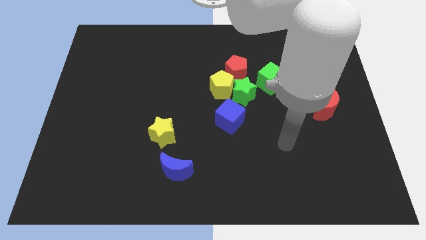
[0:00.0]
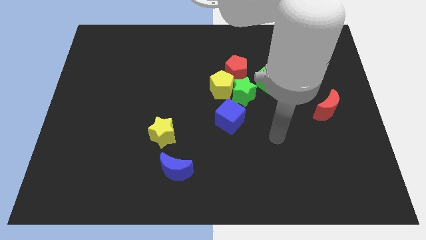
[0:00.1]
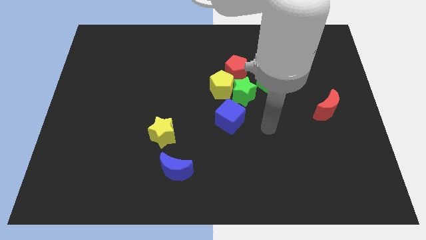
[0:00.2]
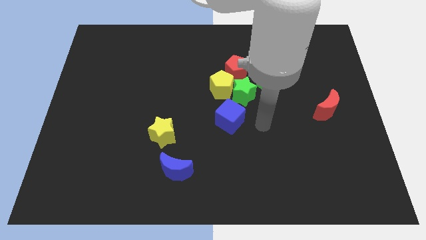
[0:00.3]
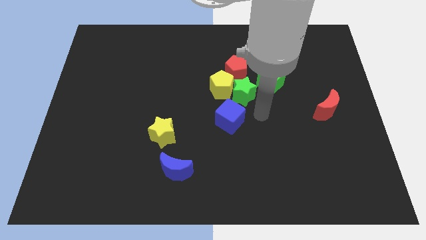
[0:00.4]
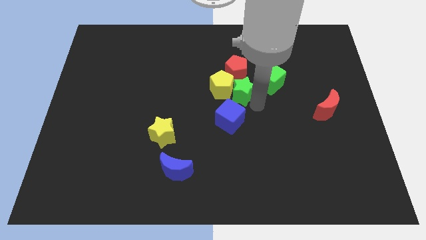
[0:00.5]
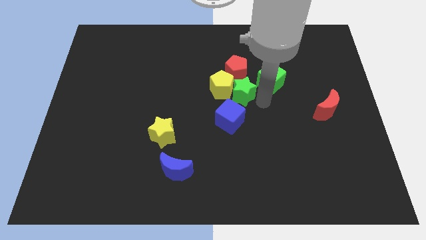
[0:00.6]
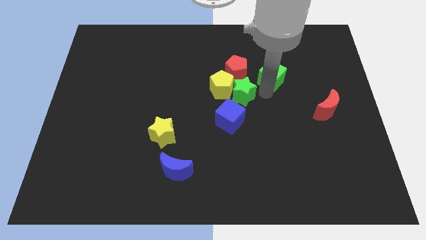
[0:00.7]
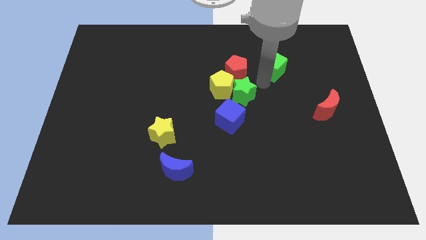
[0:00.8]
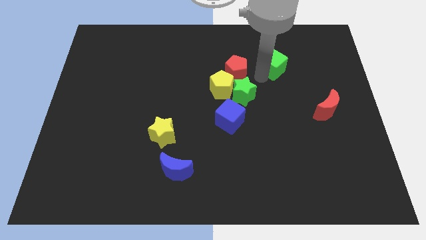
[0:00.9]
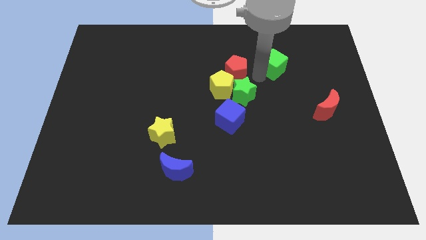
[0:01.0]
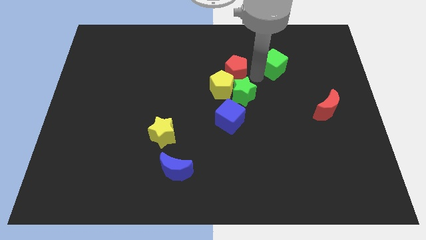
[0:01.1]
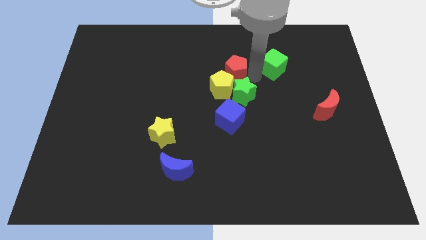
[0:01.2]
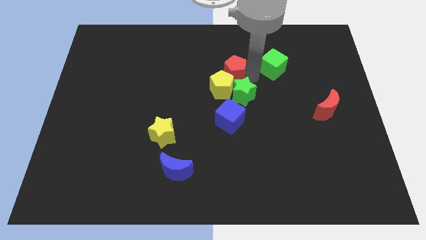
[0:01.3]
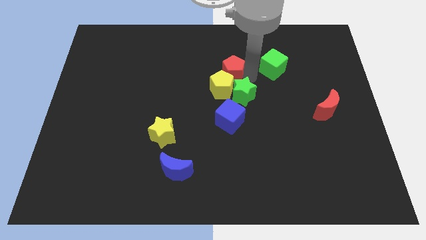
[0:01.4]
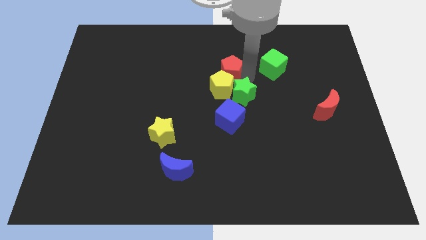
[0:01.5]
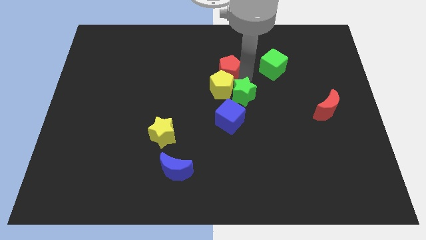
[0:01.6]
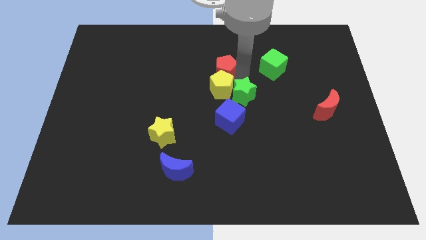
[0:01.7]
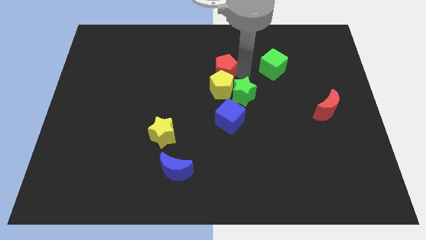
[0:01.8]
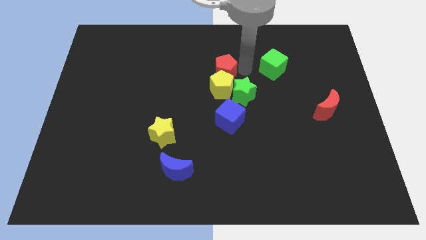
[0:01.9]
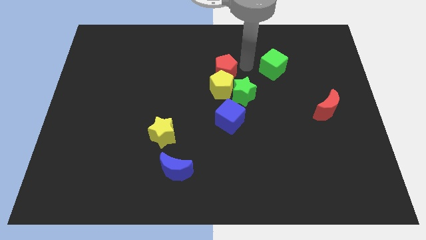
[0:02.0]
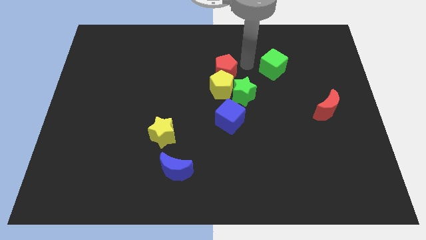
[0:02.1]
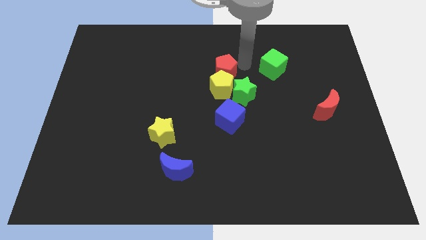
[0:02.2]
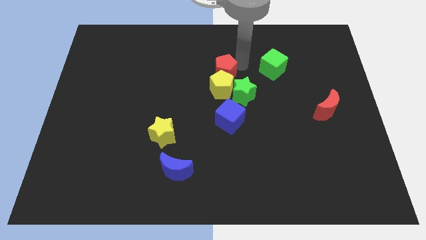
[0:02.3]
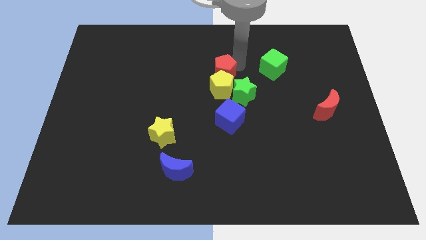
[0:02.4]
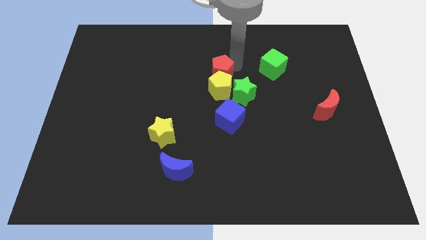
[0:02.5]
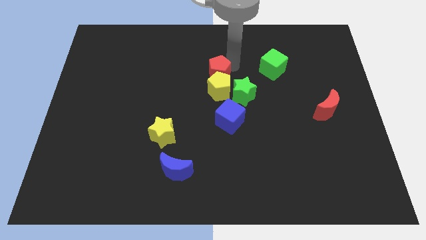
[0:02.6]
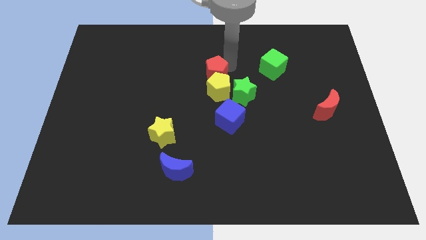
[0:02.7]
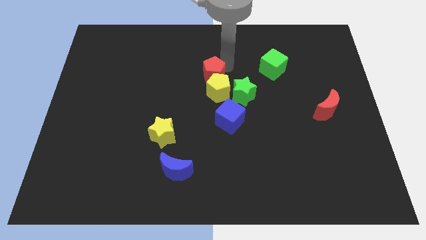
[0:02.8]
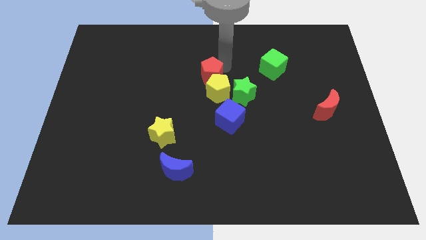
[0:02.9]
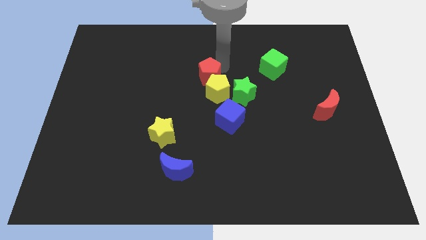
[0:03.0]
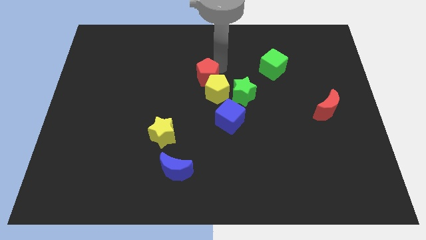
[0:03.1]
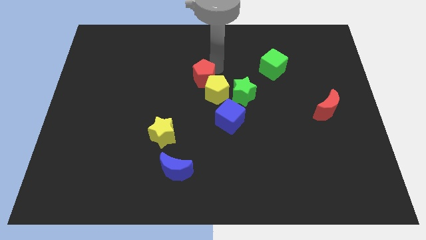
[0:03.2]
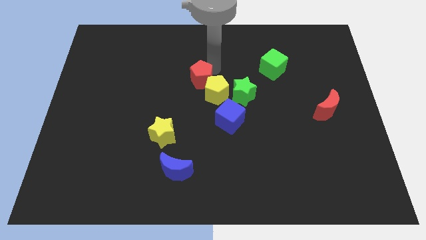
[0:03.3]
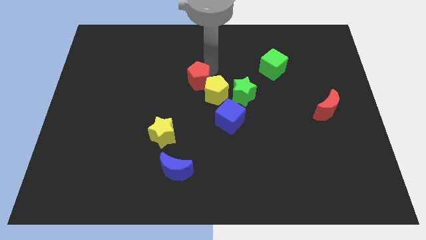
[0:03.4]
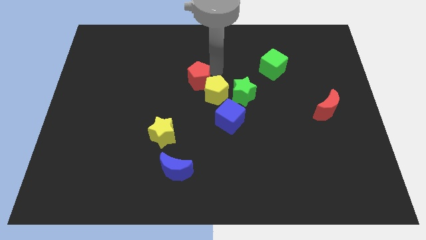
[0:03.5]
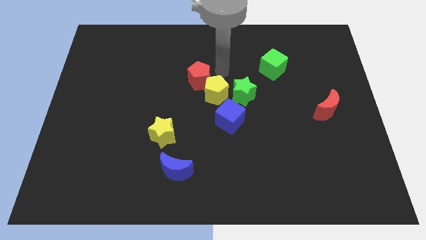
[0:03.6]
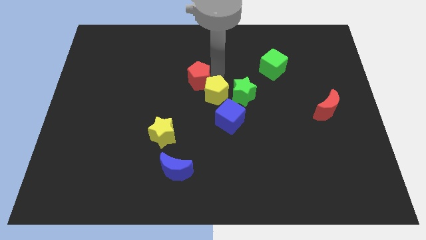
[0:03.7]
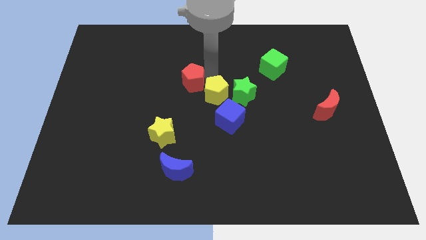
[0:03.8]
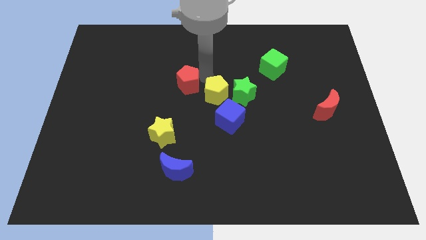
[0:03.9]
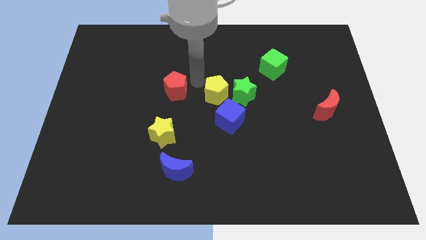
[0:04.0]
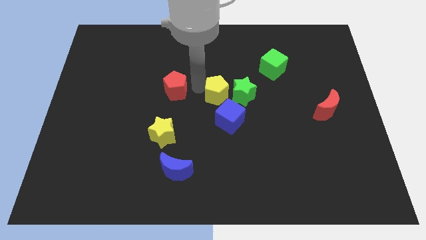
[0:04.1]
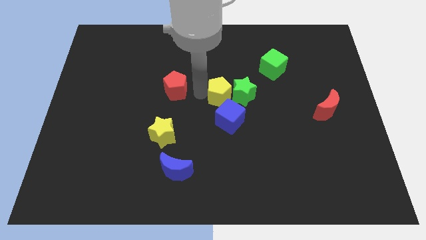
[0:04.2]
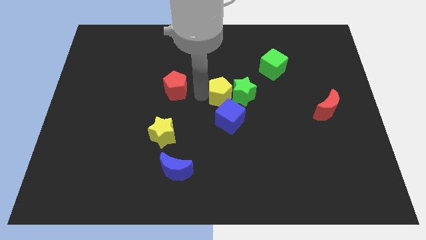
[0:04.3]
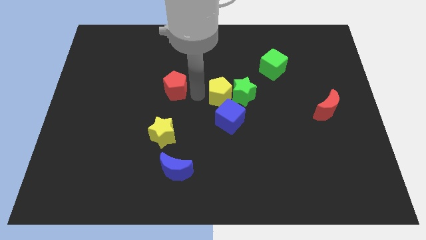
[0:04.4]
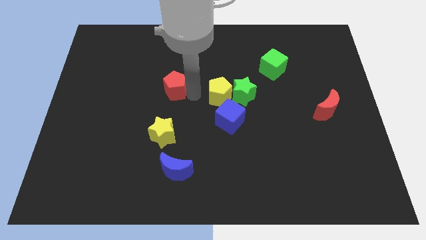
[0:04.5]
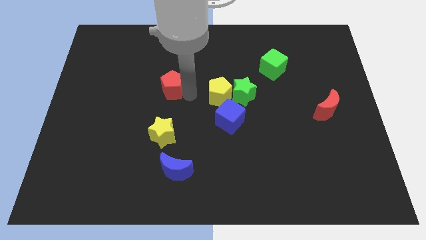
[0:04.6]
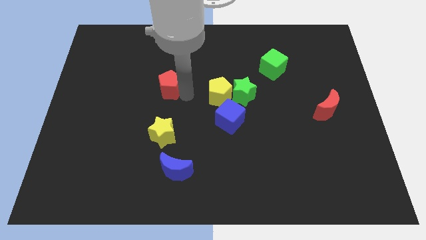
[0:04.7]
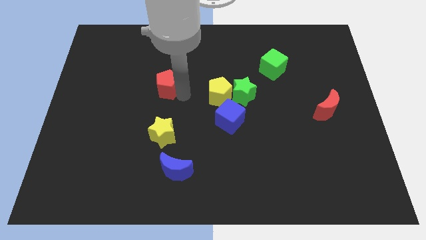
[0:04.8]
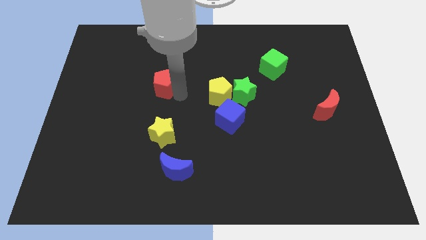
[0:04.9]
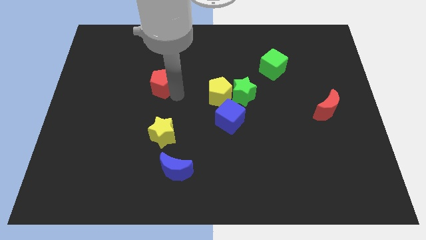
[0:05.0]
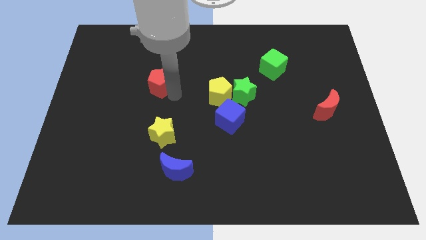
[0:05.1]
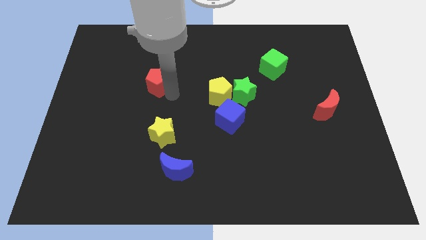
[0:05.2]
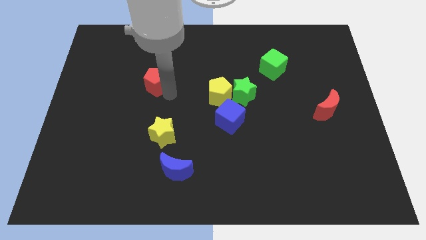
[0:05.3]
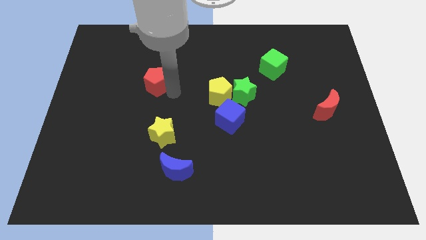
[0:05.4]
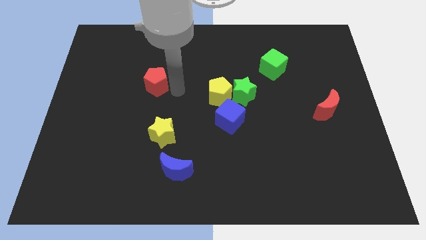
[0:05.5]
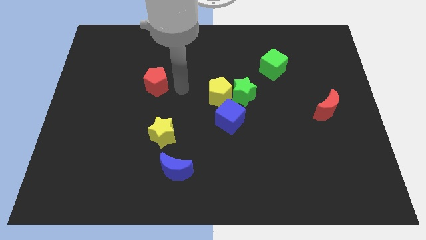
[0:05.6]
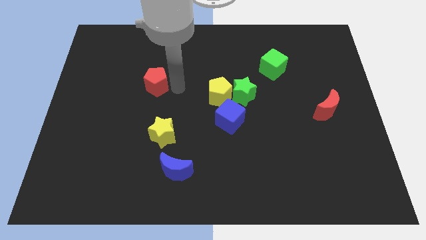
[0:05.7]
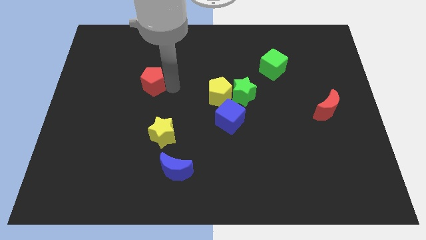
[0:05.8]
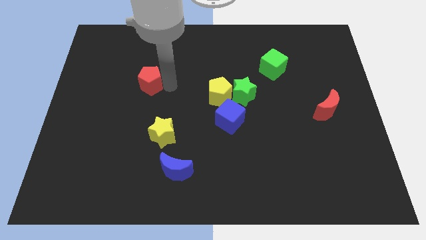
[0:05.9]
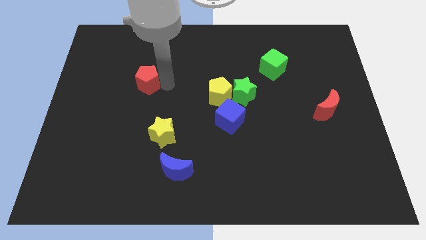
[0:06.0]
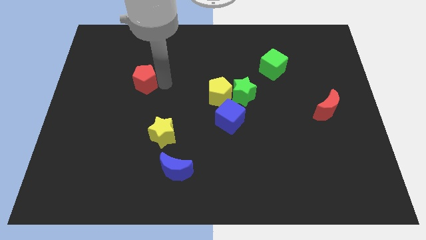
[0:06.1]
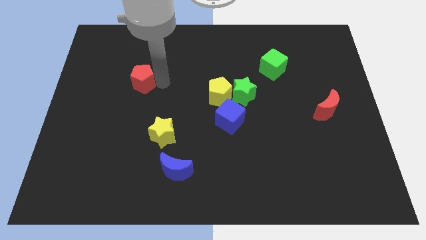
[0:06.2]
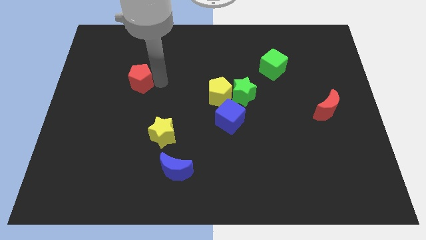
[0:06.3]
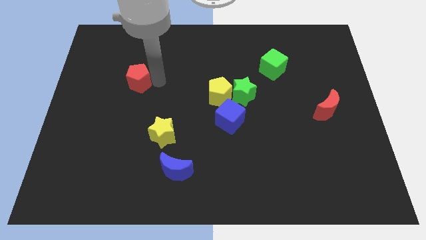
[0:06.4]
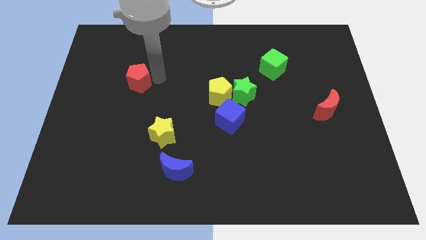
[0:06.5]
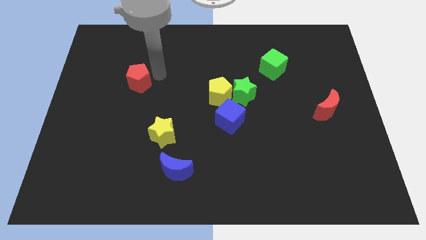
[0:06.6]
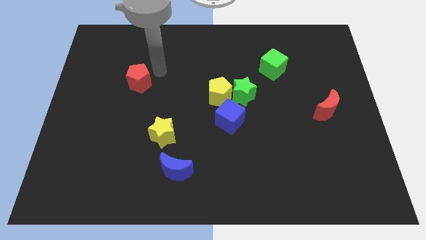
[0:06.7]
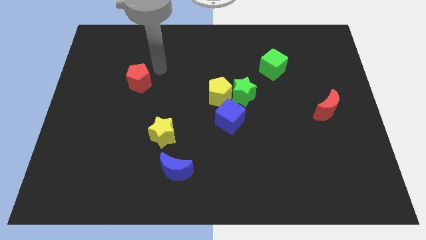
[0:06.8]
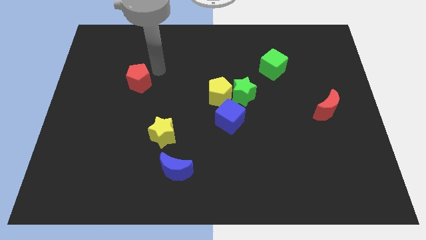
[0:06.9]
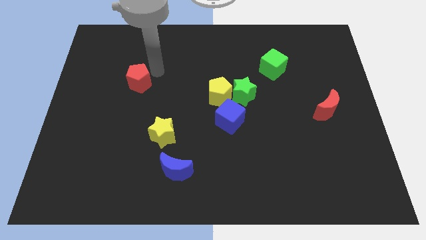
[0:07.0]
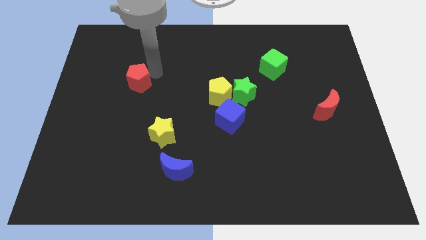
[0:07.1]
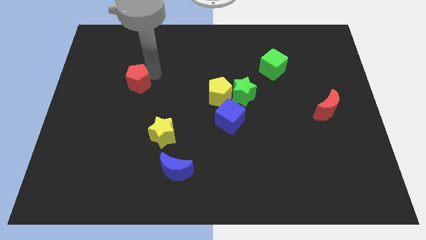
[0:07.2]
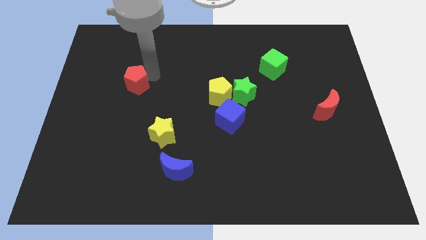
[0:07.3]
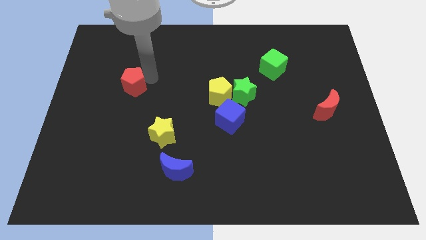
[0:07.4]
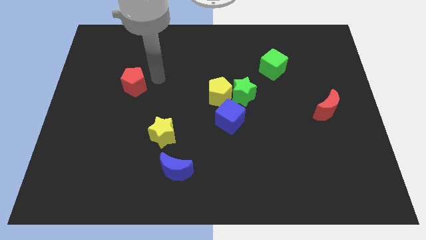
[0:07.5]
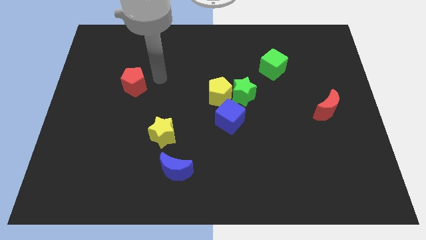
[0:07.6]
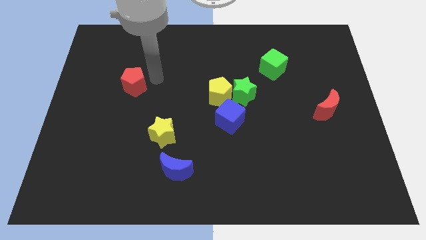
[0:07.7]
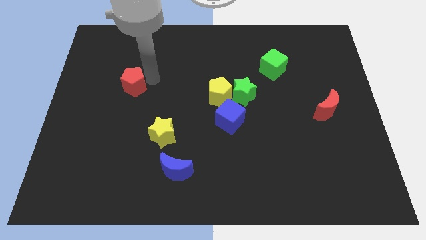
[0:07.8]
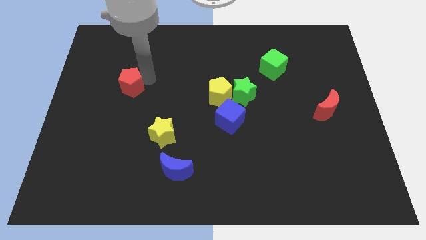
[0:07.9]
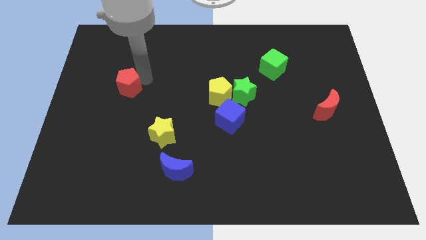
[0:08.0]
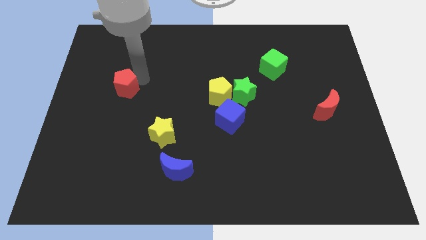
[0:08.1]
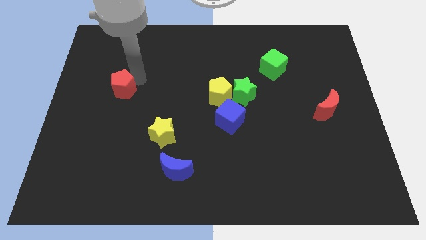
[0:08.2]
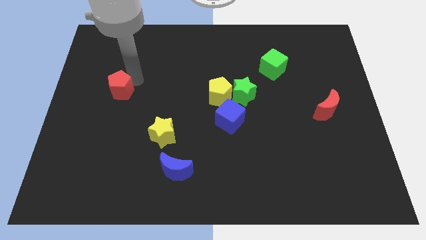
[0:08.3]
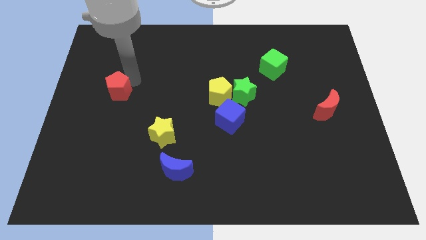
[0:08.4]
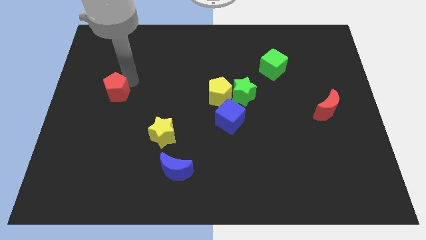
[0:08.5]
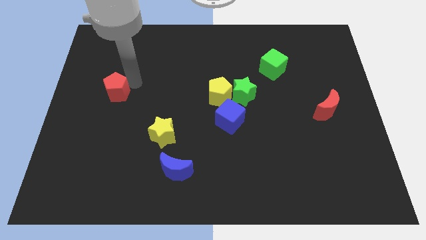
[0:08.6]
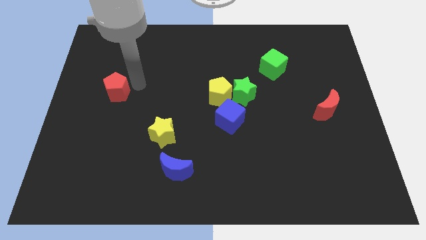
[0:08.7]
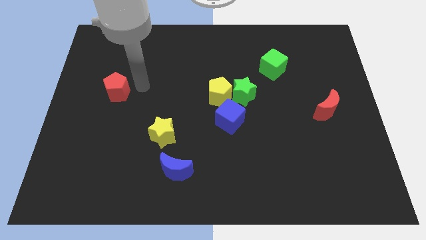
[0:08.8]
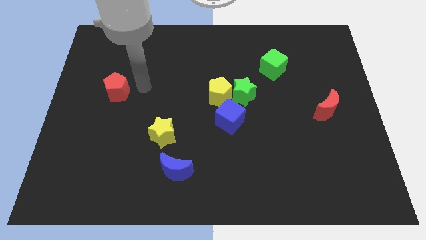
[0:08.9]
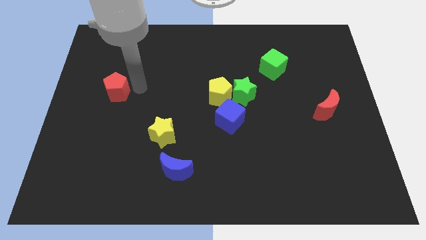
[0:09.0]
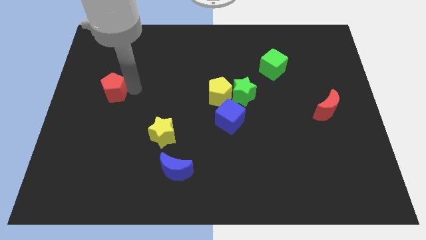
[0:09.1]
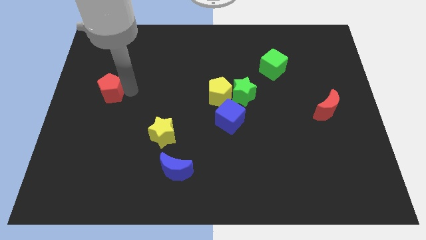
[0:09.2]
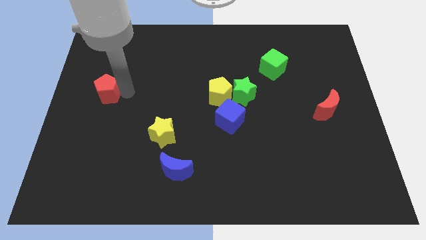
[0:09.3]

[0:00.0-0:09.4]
push the red pentagon to the center left
